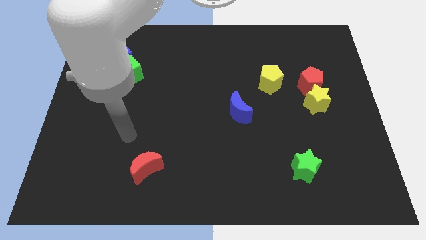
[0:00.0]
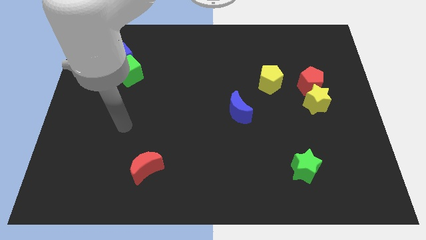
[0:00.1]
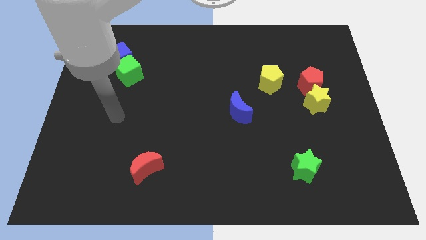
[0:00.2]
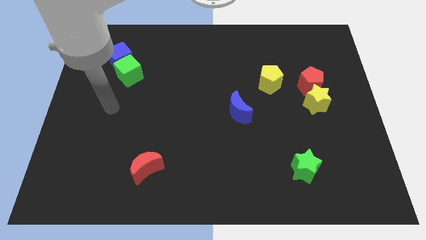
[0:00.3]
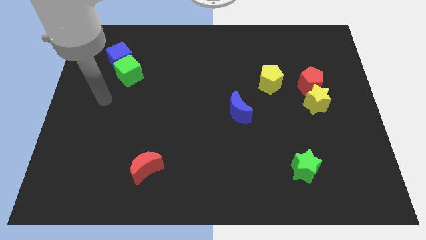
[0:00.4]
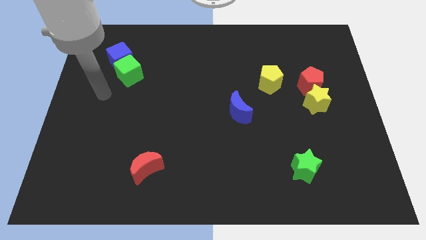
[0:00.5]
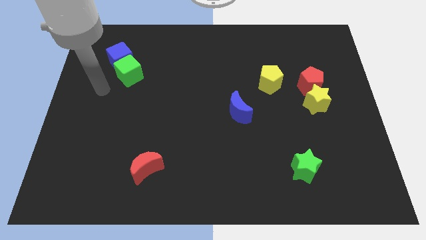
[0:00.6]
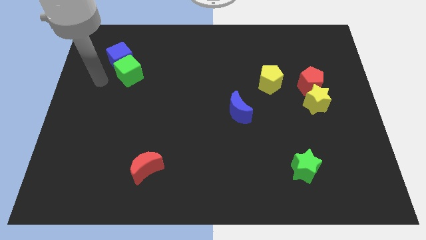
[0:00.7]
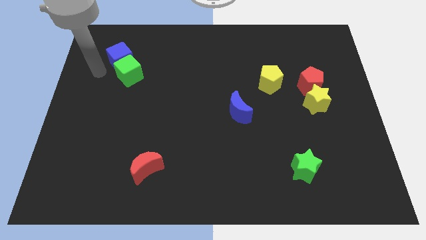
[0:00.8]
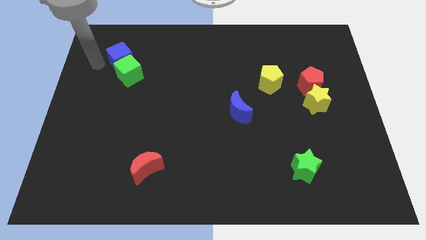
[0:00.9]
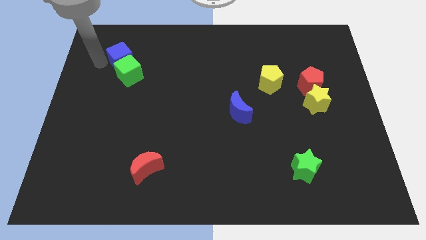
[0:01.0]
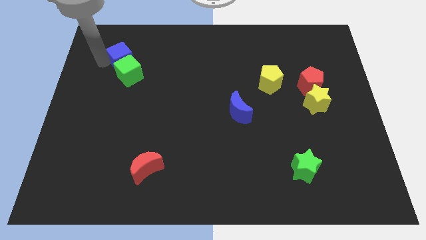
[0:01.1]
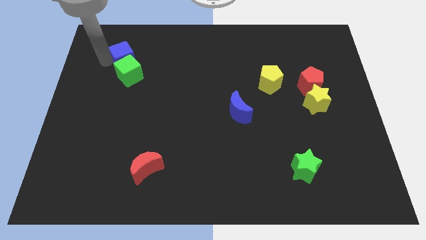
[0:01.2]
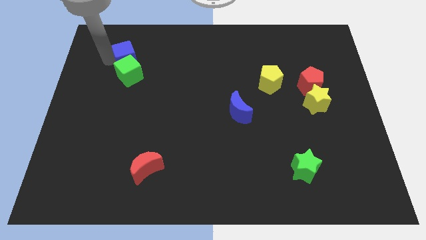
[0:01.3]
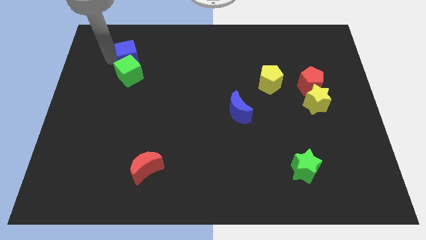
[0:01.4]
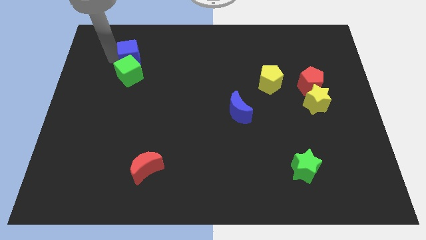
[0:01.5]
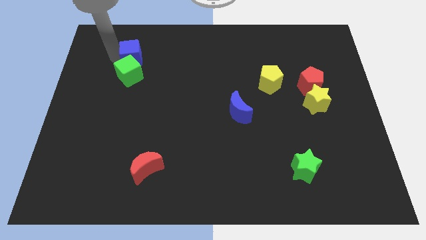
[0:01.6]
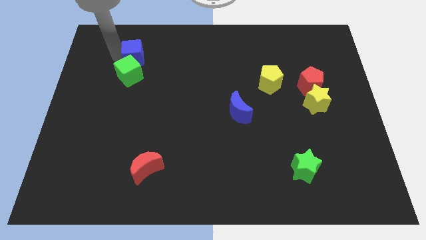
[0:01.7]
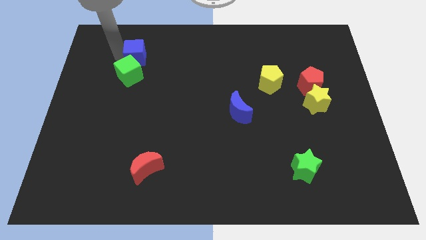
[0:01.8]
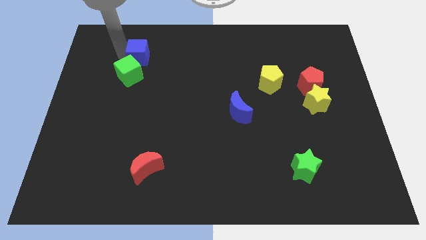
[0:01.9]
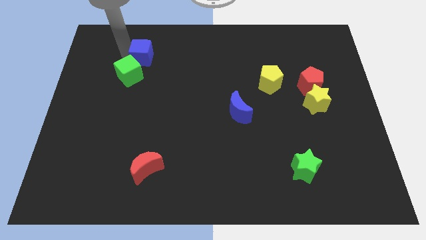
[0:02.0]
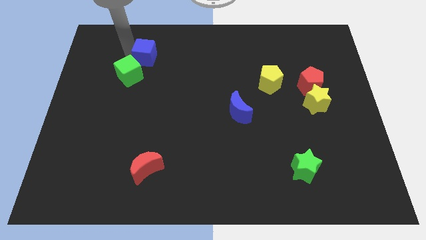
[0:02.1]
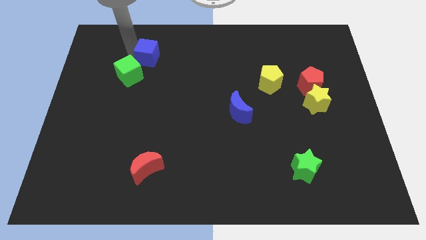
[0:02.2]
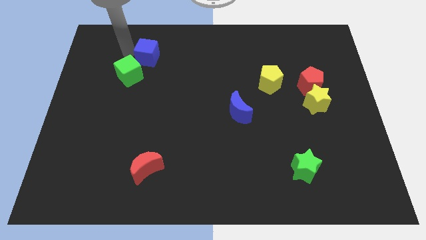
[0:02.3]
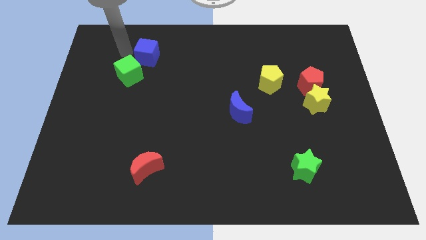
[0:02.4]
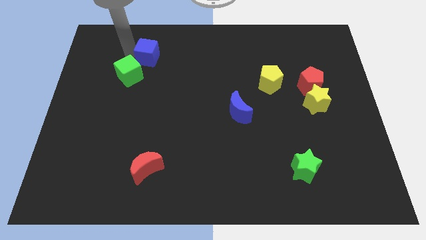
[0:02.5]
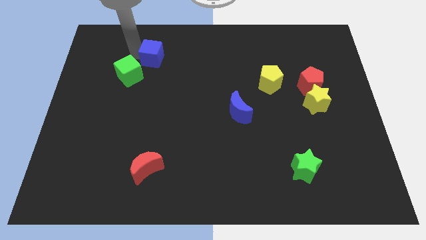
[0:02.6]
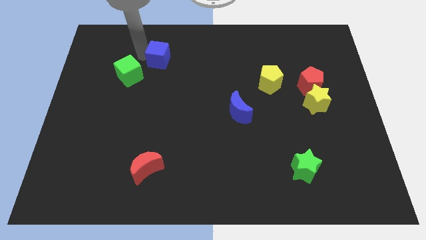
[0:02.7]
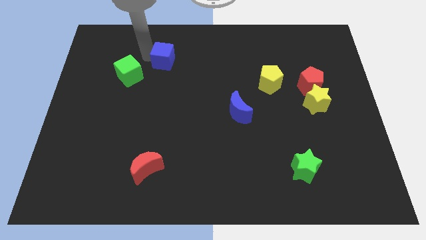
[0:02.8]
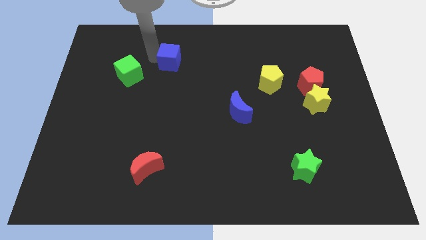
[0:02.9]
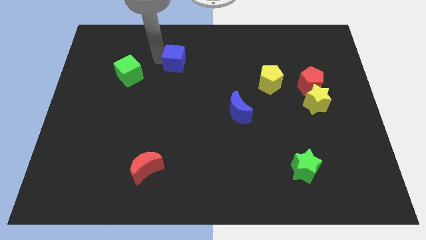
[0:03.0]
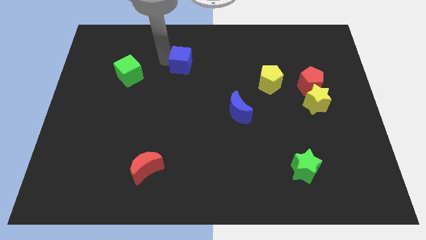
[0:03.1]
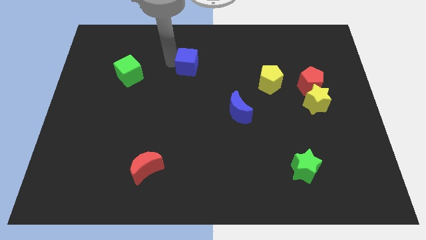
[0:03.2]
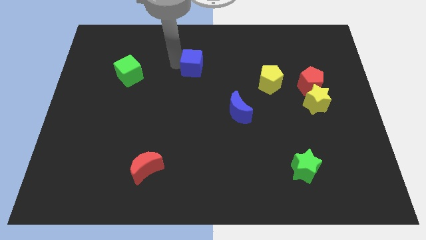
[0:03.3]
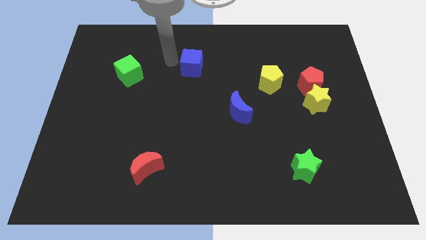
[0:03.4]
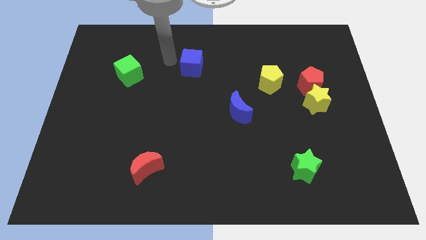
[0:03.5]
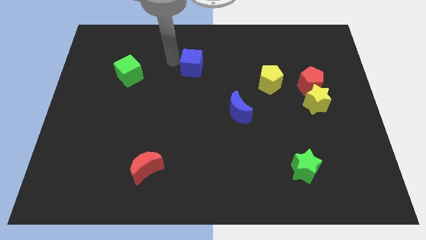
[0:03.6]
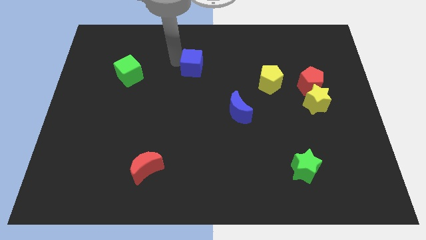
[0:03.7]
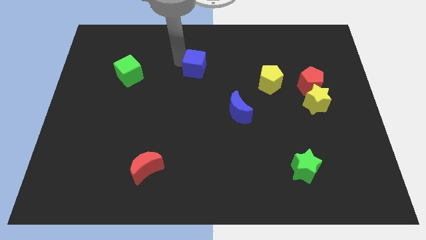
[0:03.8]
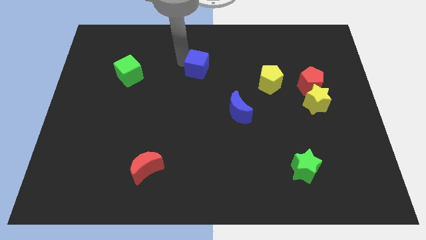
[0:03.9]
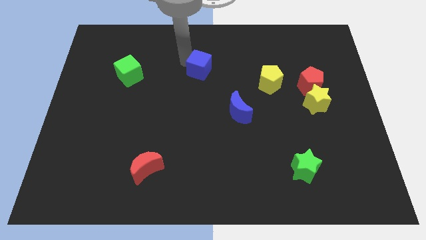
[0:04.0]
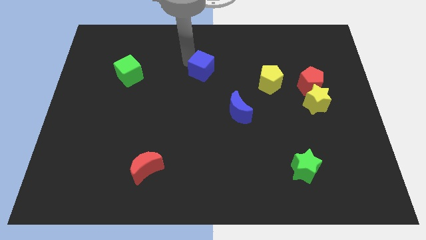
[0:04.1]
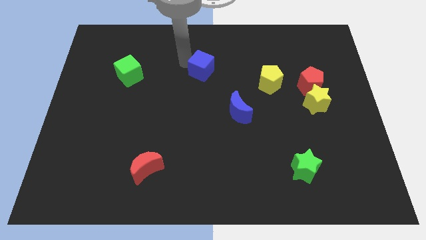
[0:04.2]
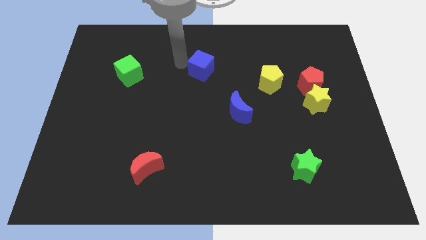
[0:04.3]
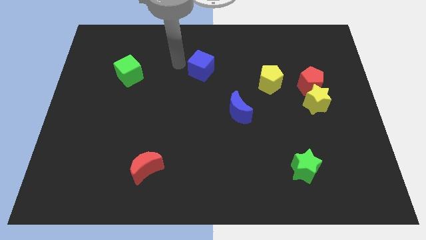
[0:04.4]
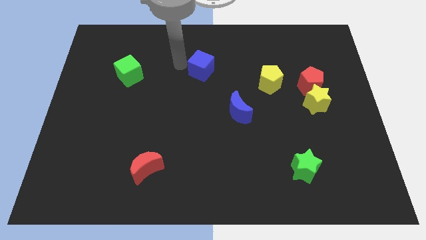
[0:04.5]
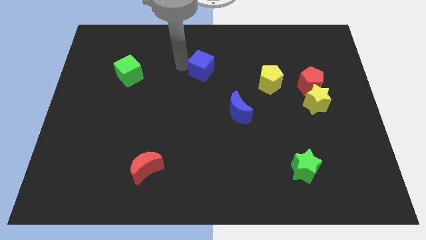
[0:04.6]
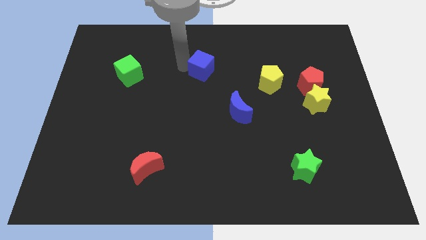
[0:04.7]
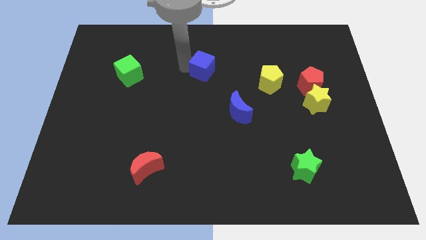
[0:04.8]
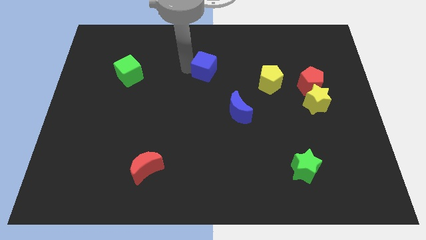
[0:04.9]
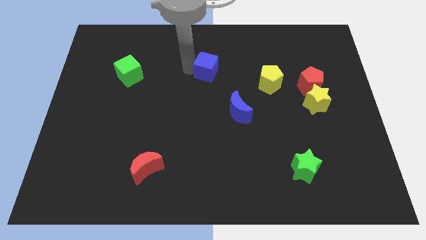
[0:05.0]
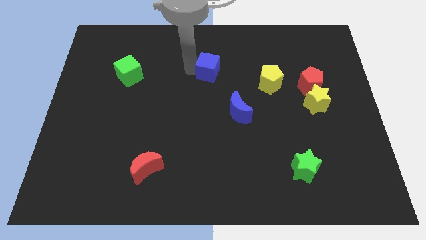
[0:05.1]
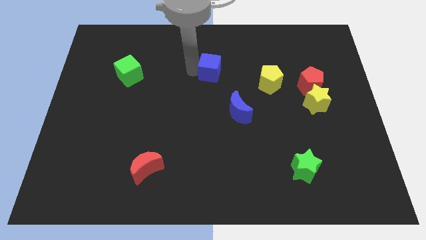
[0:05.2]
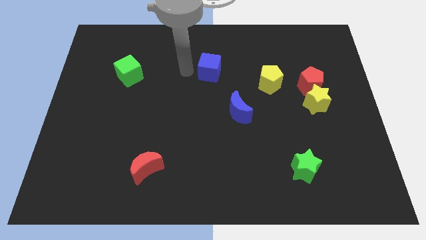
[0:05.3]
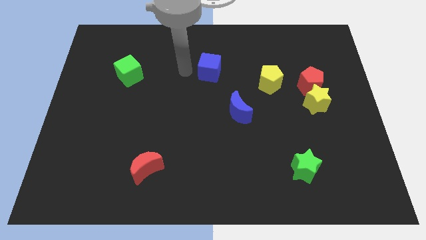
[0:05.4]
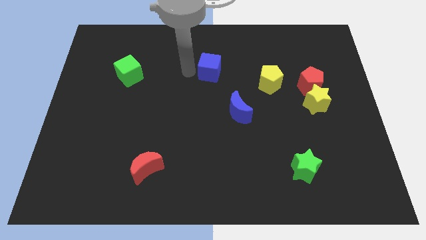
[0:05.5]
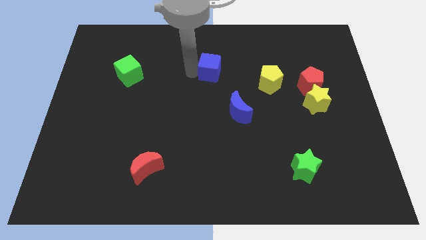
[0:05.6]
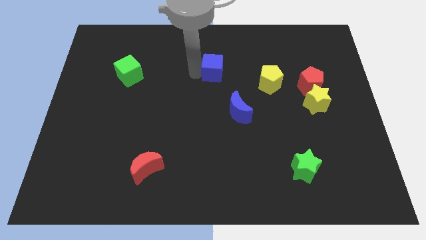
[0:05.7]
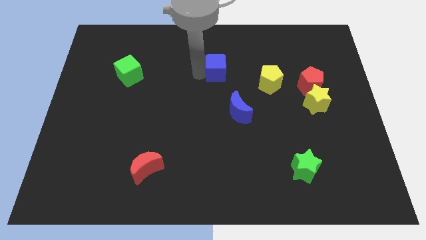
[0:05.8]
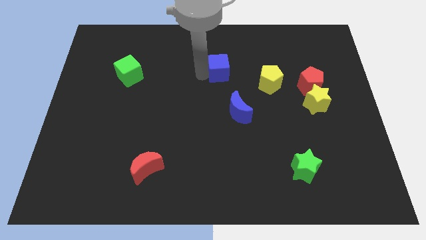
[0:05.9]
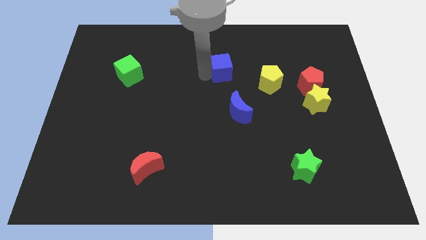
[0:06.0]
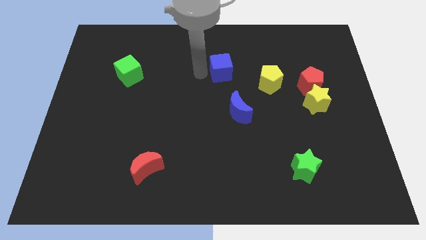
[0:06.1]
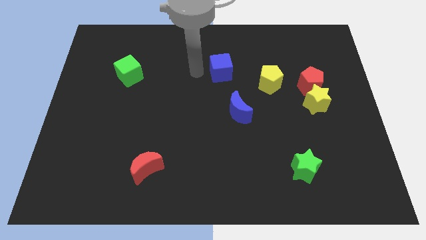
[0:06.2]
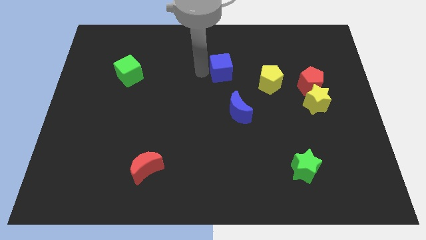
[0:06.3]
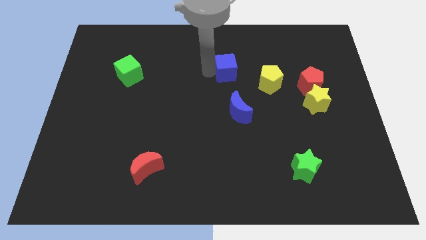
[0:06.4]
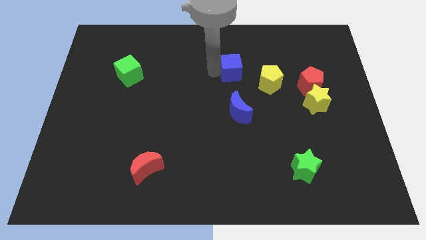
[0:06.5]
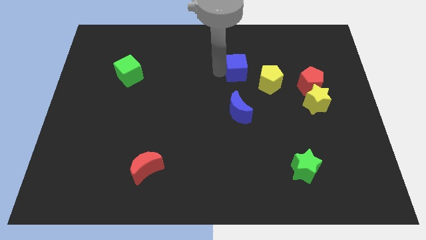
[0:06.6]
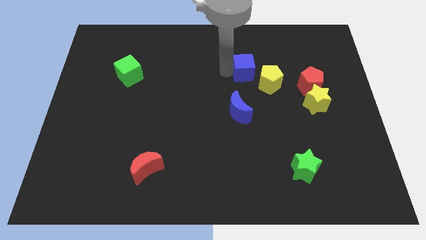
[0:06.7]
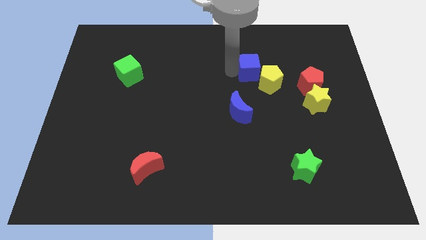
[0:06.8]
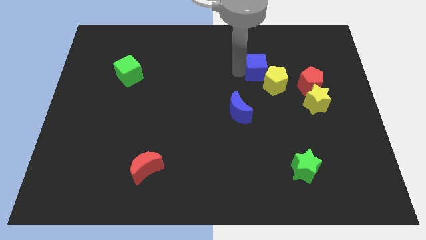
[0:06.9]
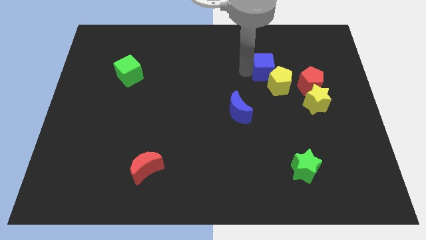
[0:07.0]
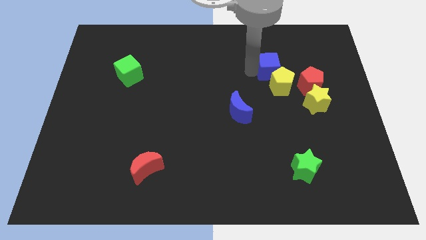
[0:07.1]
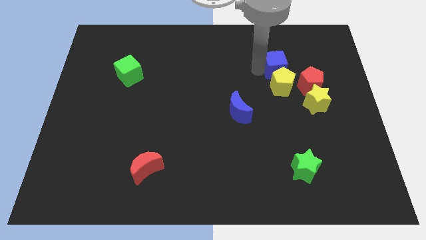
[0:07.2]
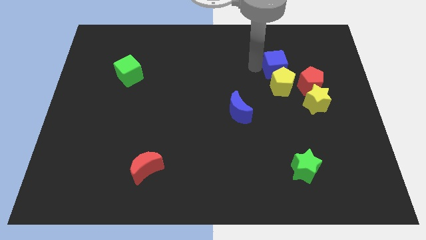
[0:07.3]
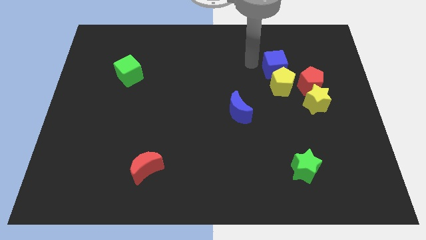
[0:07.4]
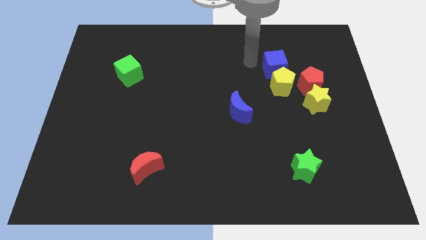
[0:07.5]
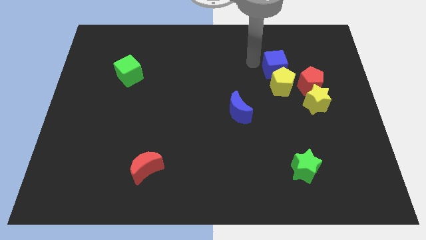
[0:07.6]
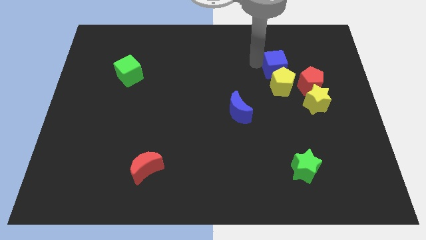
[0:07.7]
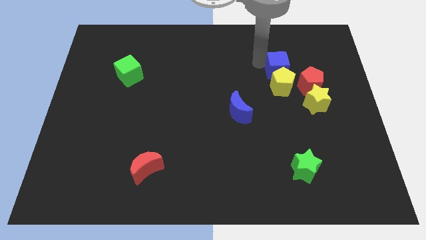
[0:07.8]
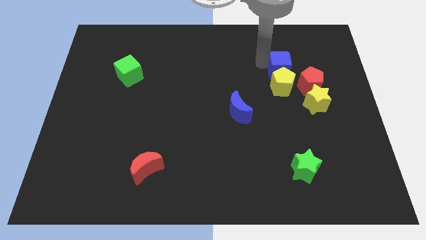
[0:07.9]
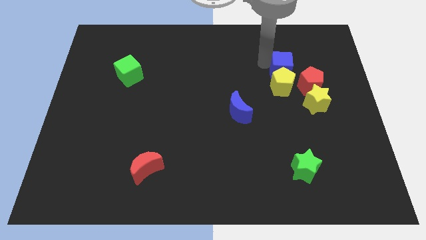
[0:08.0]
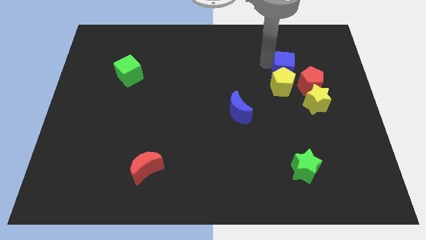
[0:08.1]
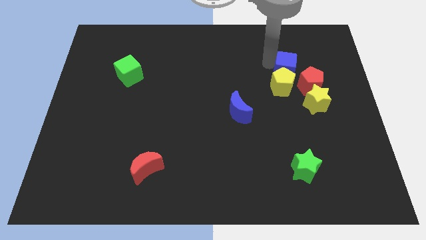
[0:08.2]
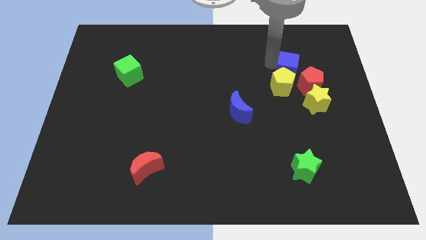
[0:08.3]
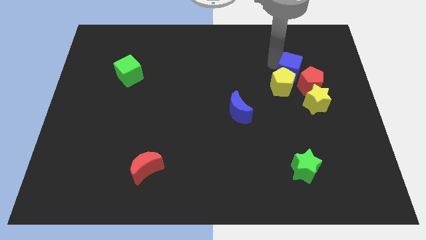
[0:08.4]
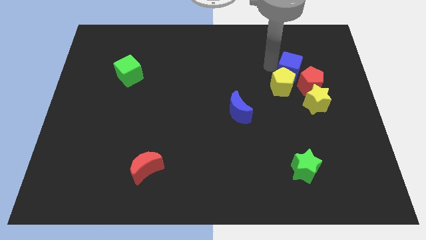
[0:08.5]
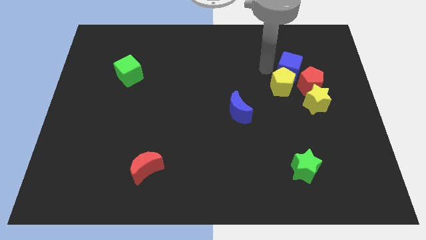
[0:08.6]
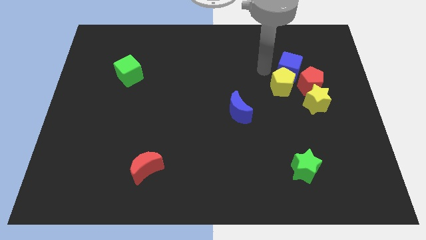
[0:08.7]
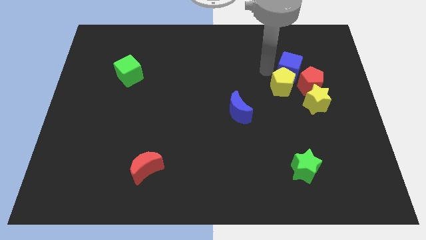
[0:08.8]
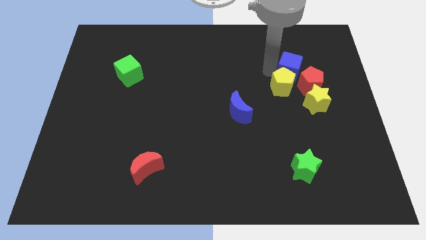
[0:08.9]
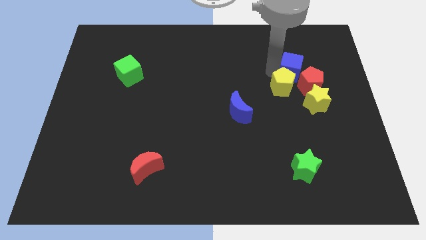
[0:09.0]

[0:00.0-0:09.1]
put the blue cube above the yellow star
